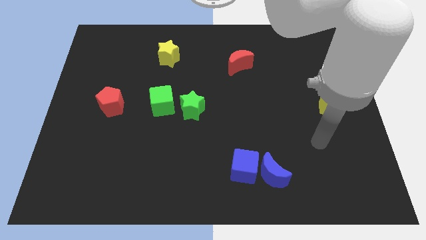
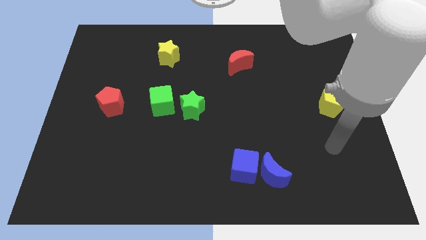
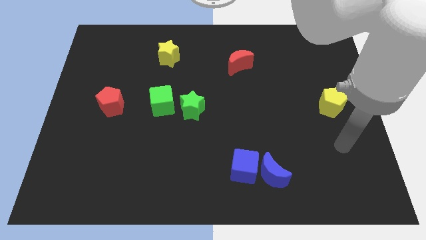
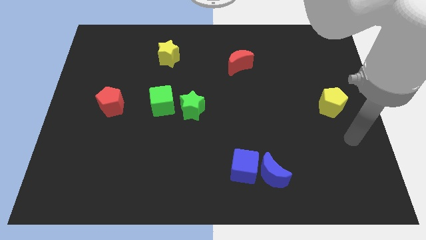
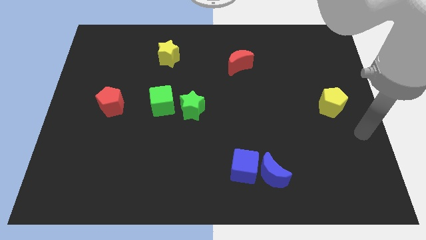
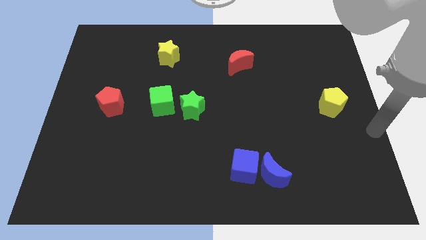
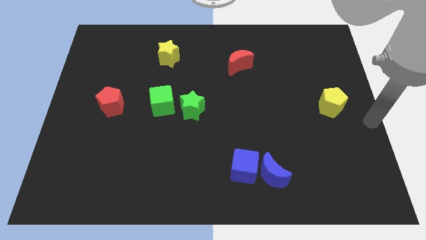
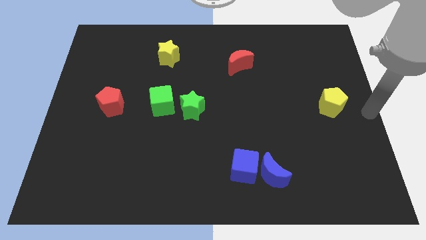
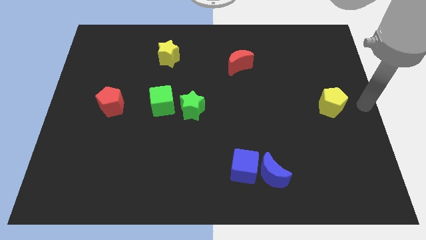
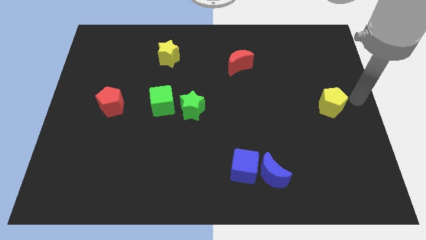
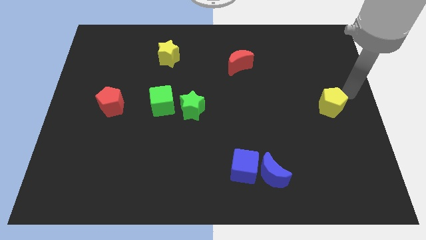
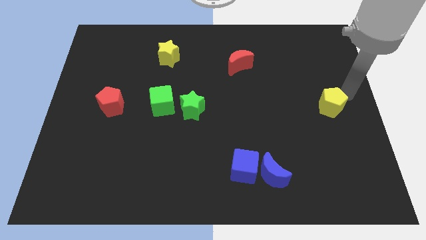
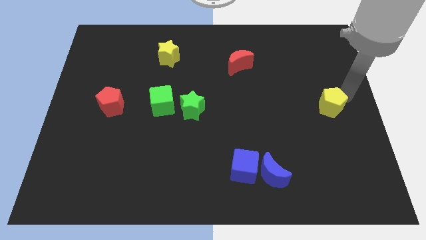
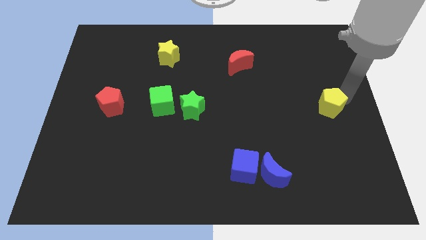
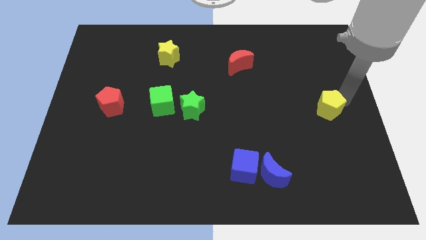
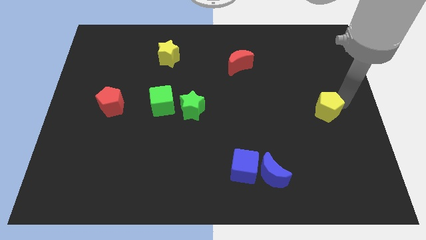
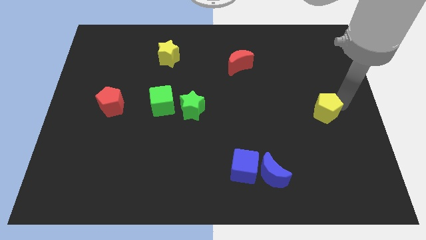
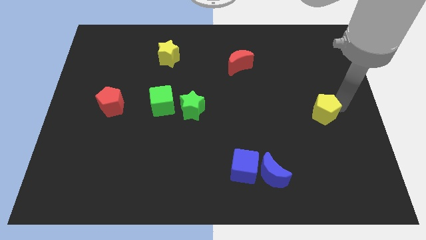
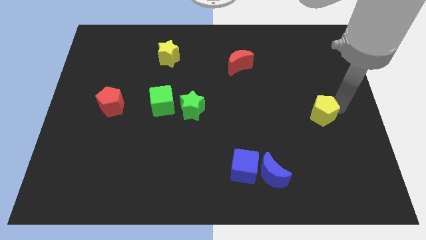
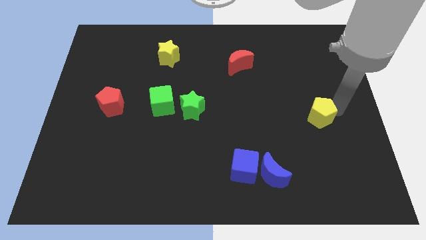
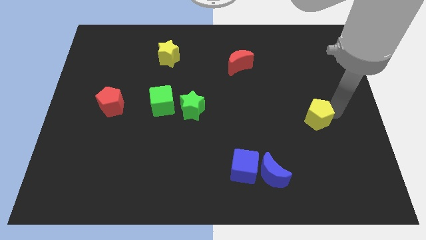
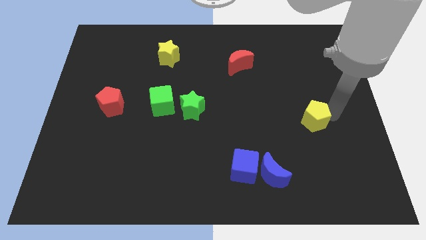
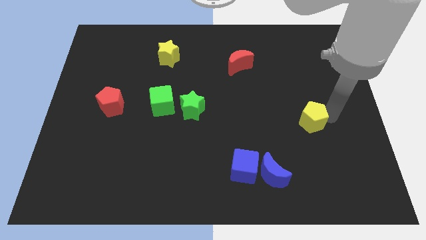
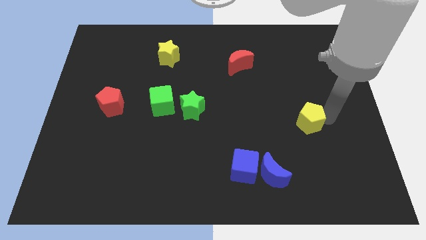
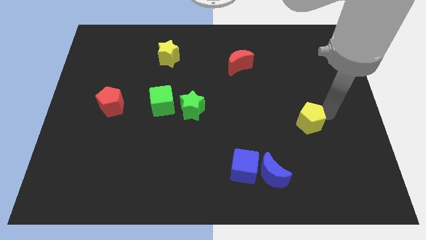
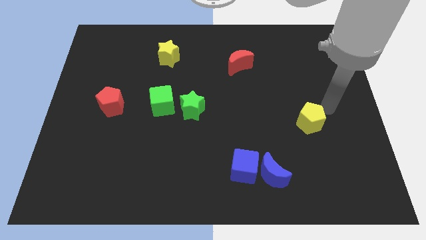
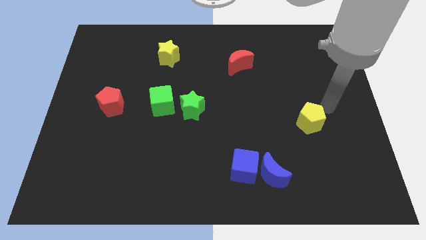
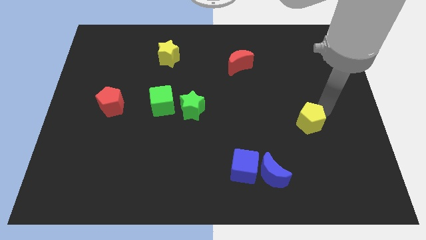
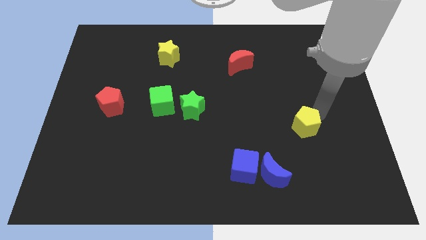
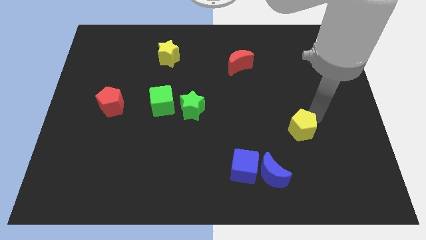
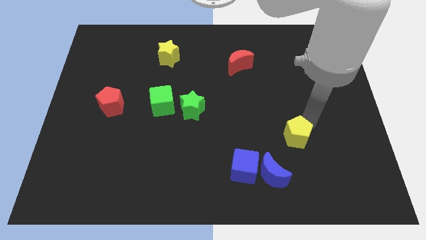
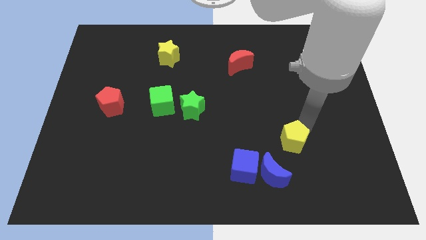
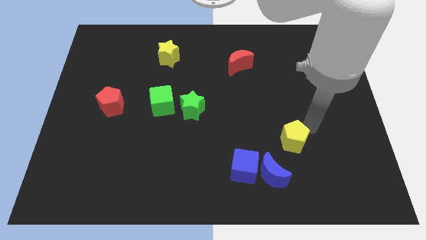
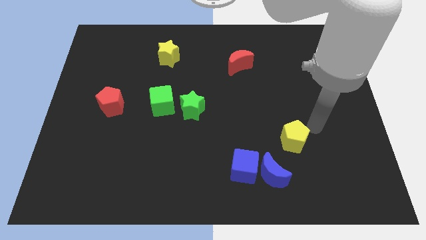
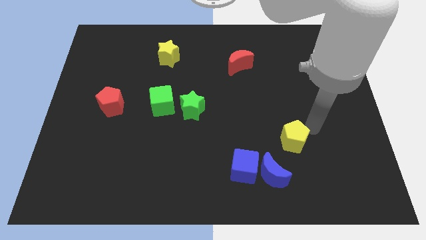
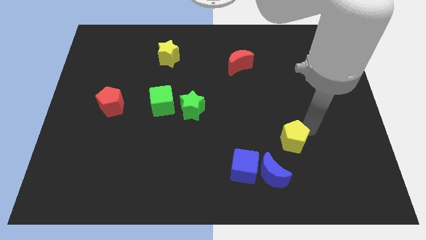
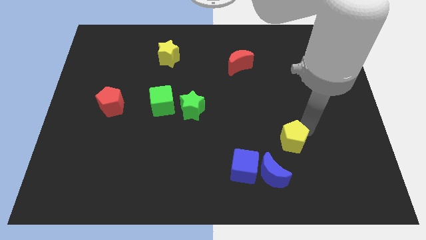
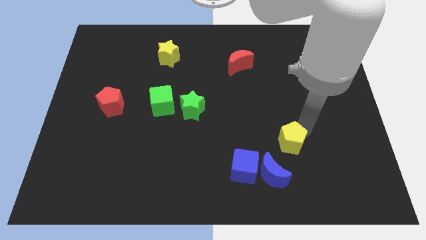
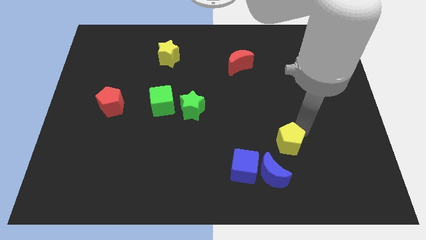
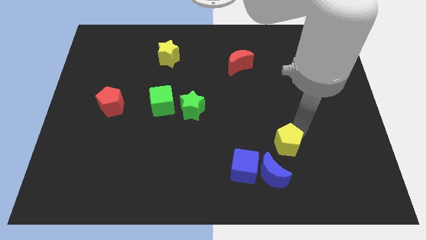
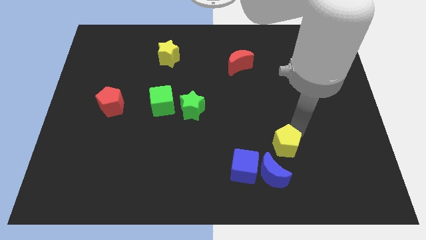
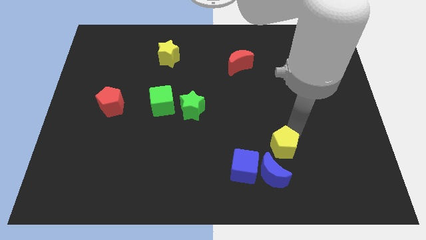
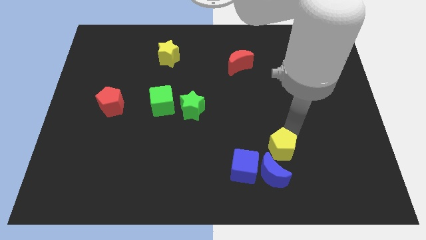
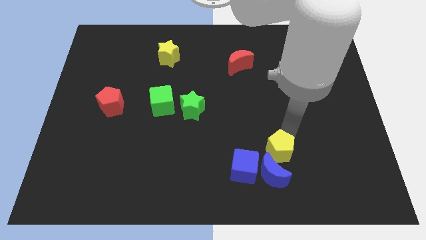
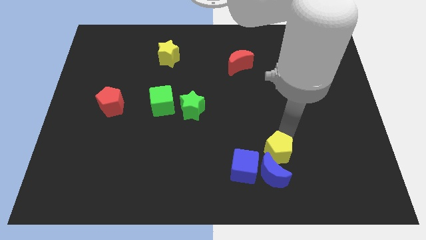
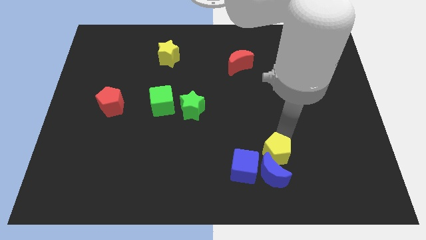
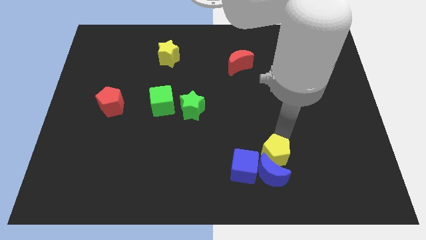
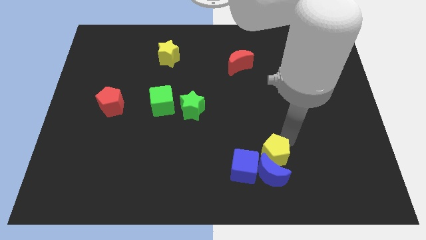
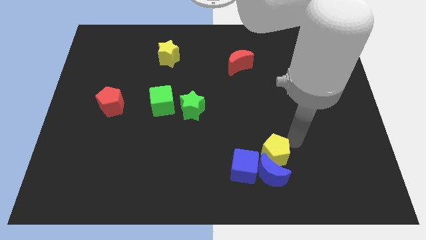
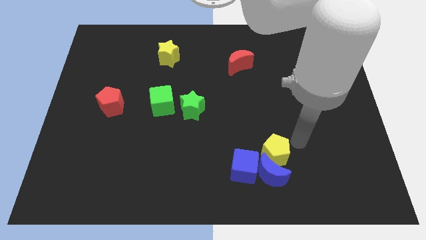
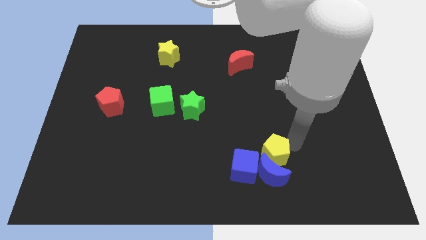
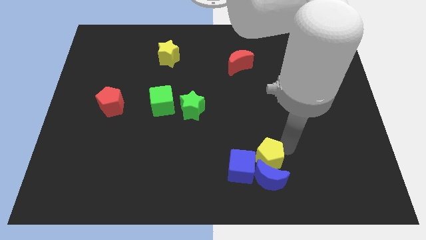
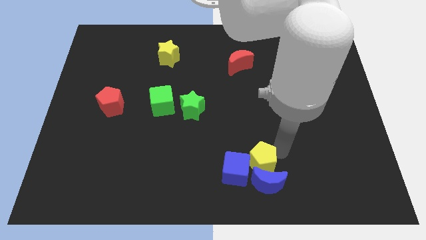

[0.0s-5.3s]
slide the yellow pentagon towards the blue cube

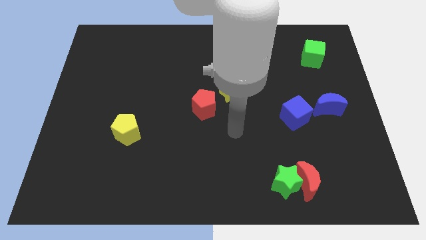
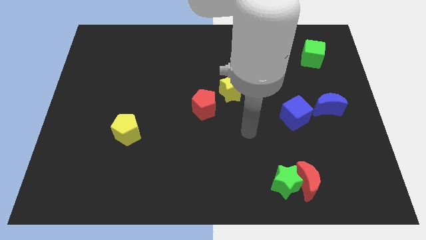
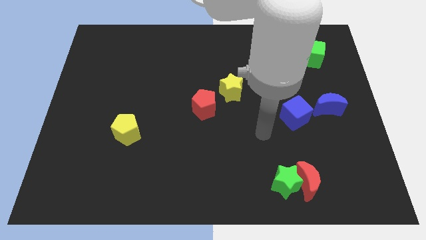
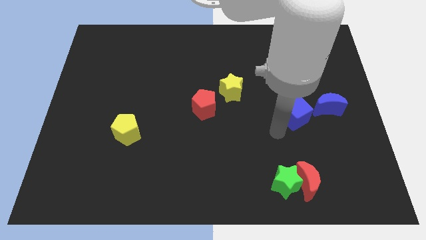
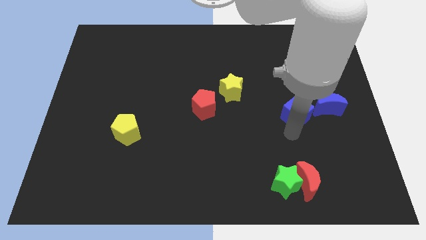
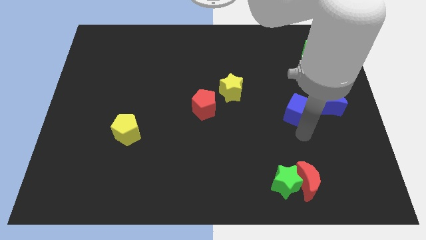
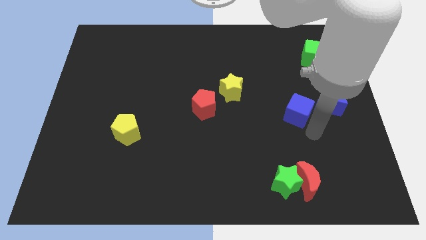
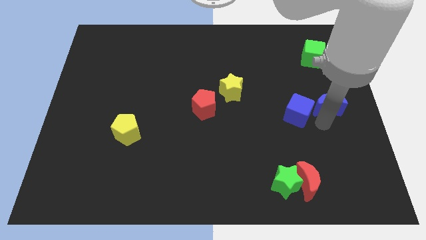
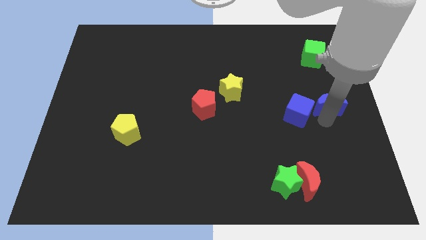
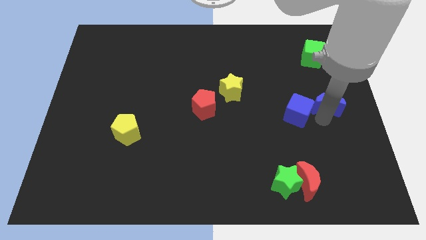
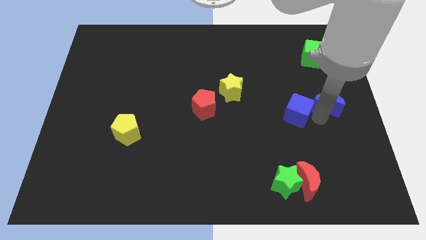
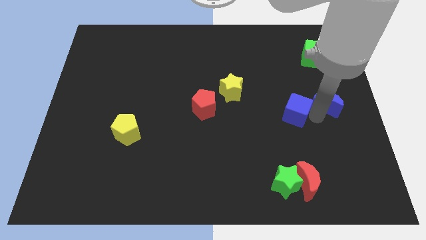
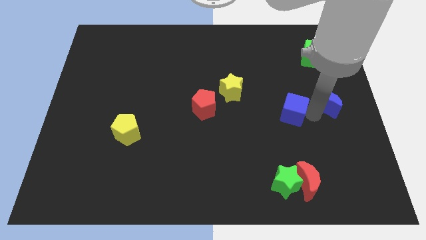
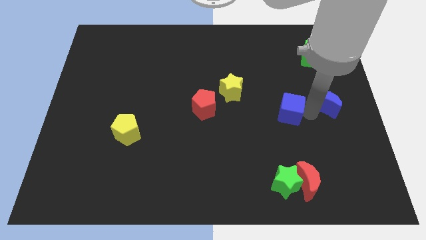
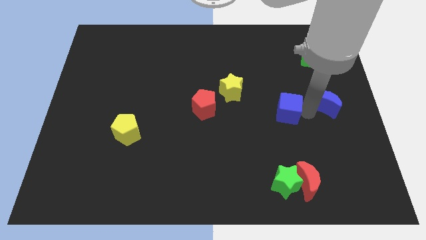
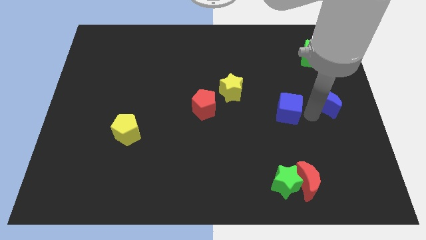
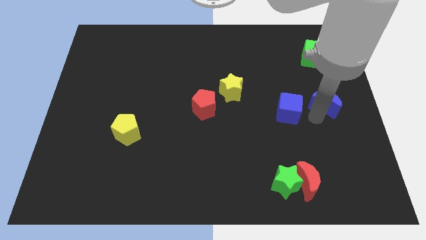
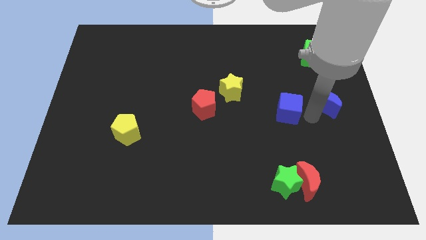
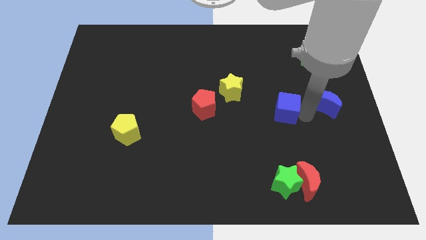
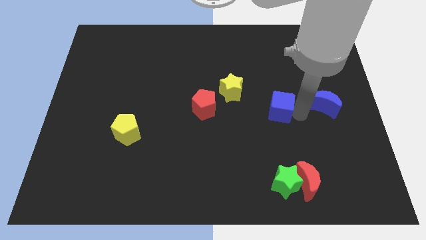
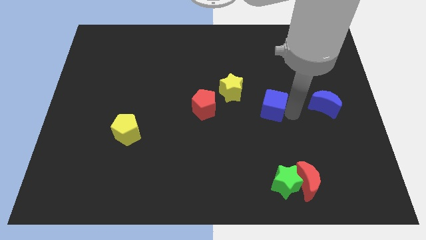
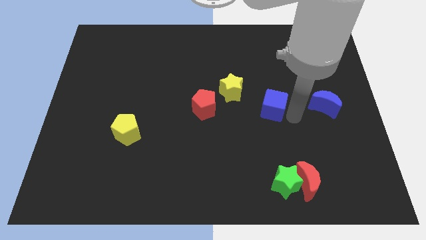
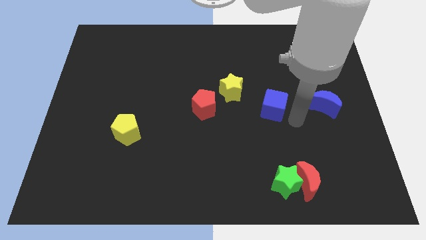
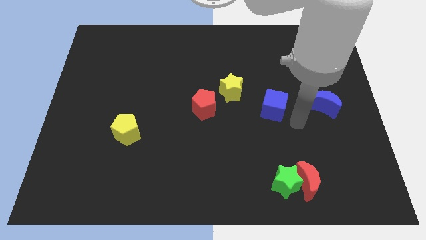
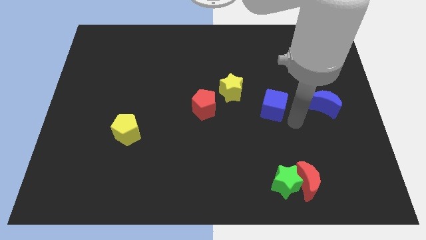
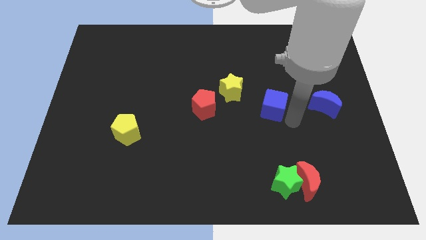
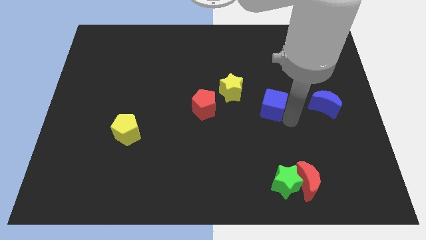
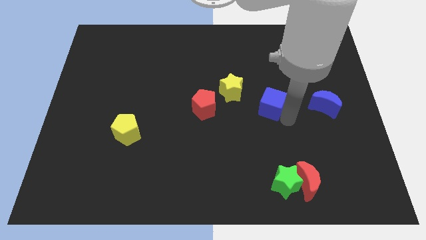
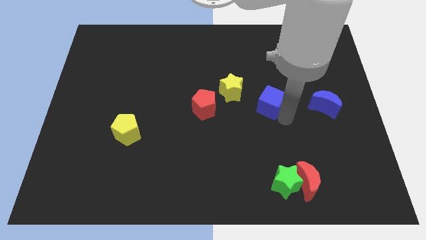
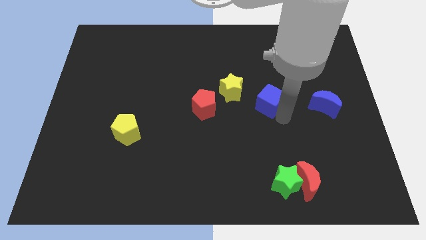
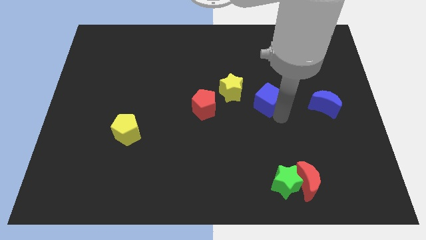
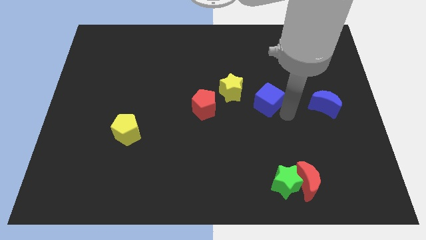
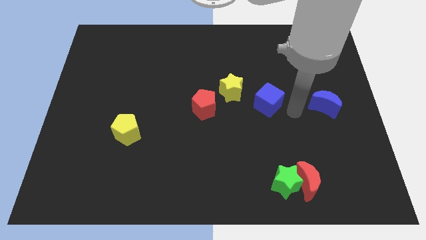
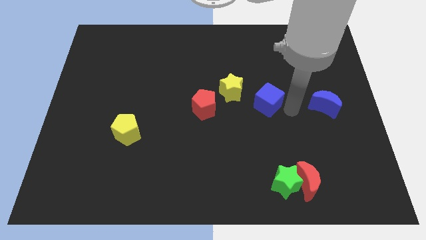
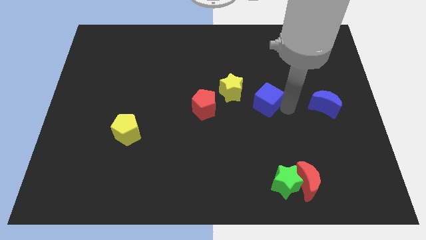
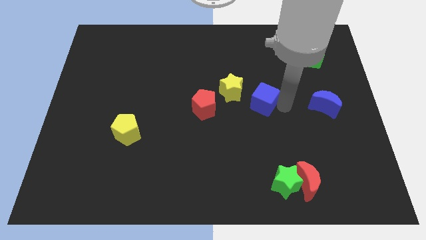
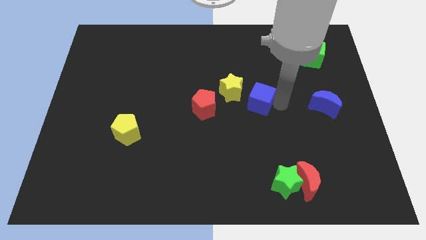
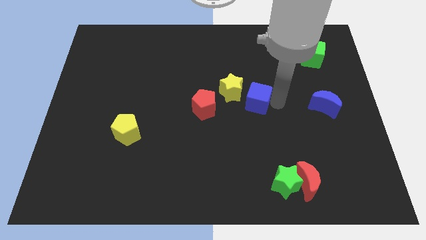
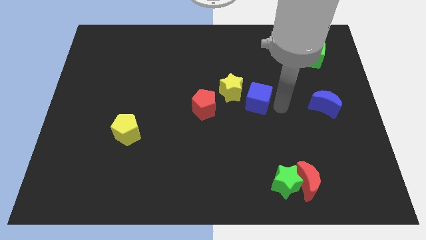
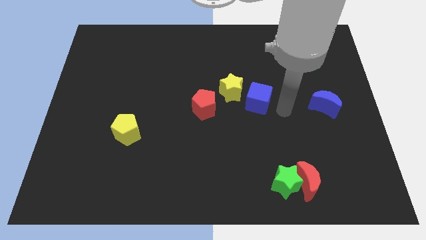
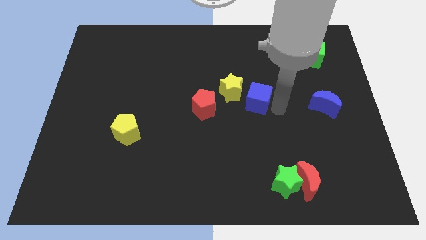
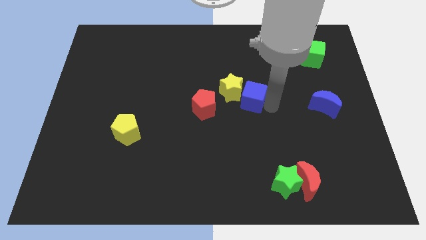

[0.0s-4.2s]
push the blue cube close to the yellow star
